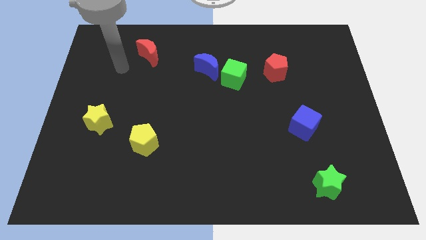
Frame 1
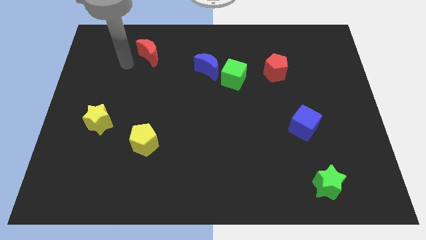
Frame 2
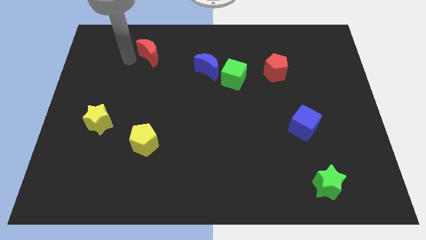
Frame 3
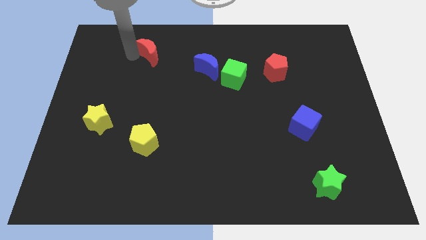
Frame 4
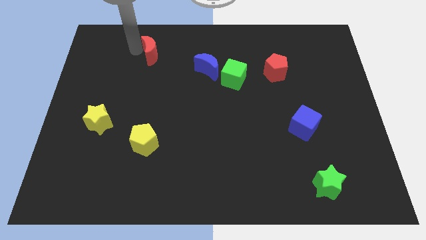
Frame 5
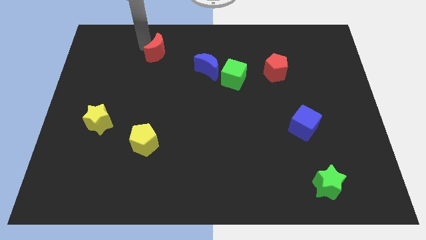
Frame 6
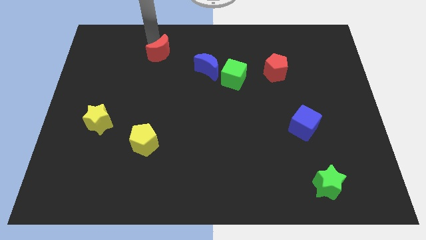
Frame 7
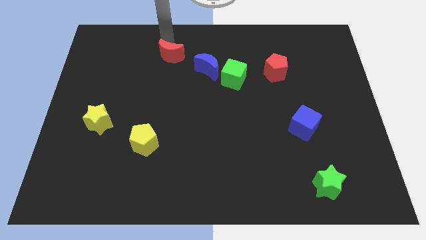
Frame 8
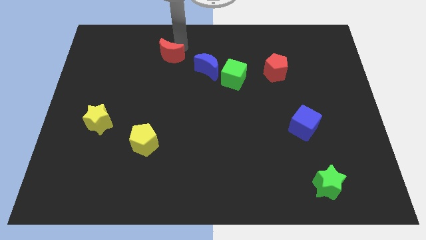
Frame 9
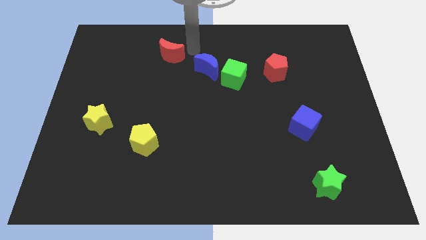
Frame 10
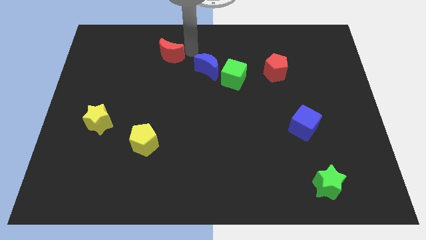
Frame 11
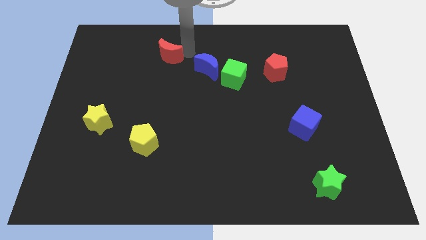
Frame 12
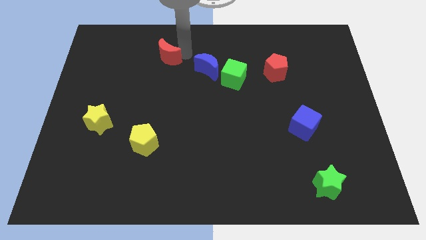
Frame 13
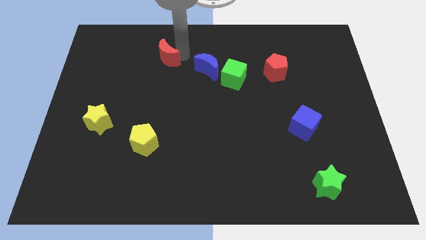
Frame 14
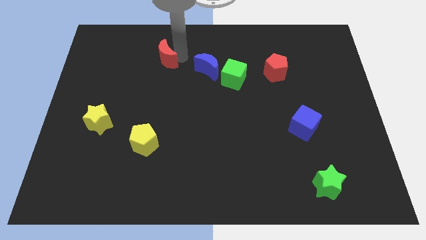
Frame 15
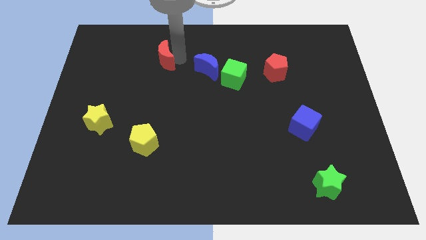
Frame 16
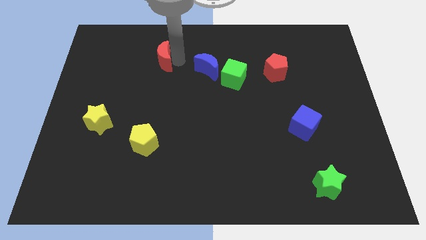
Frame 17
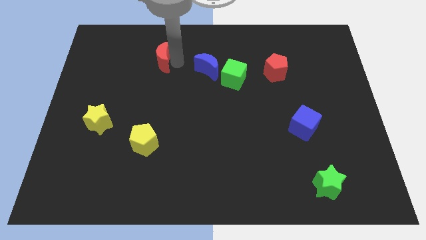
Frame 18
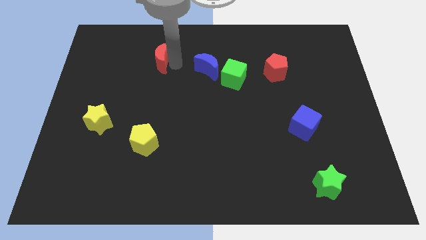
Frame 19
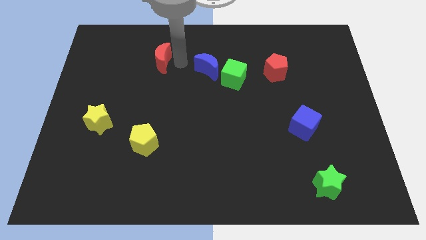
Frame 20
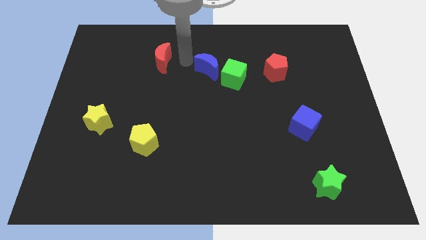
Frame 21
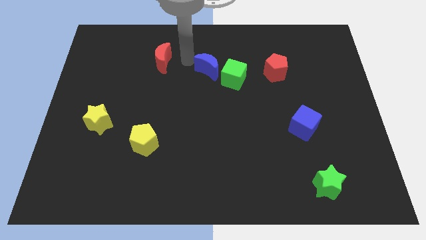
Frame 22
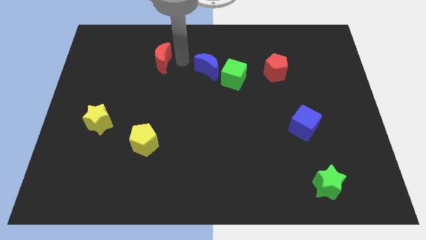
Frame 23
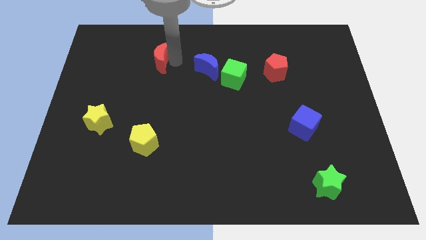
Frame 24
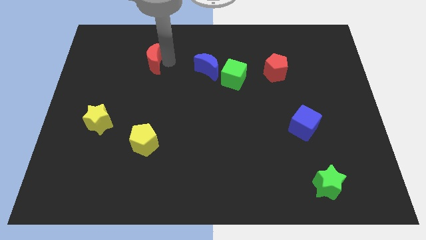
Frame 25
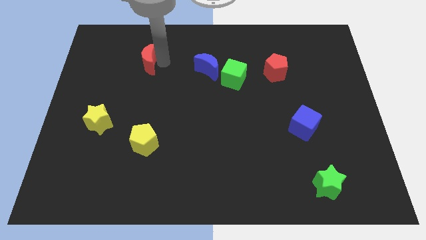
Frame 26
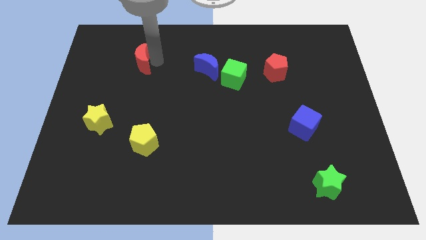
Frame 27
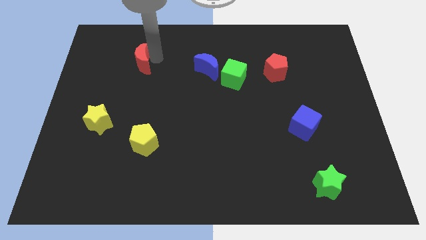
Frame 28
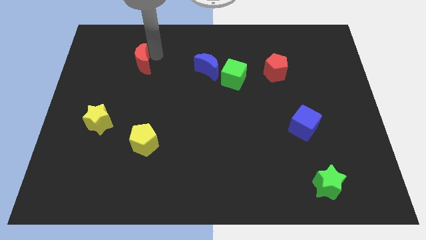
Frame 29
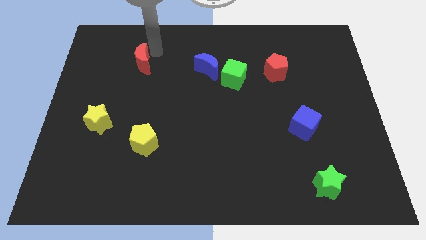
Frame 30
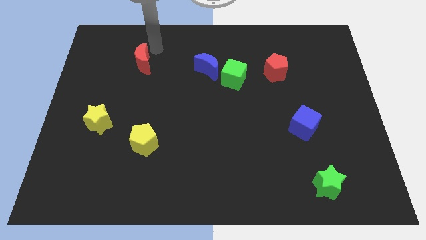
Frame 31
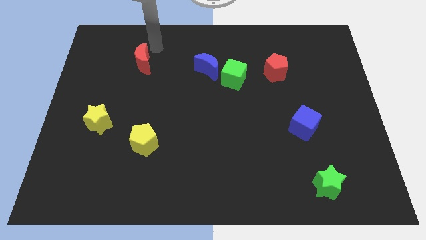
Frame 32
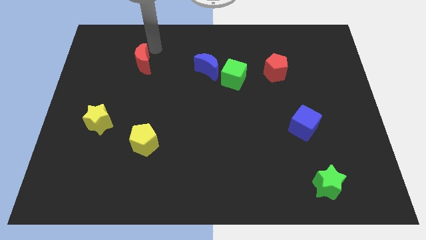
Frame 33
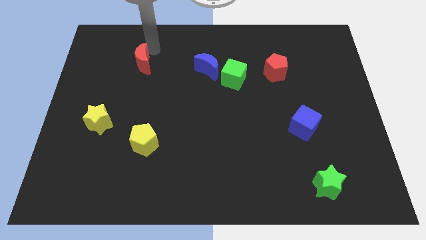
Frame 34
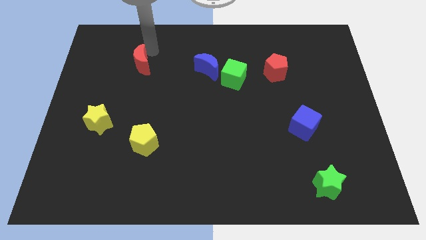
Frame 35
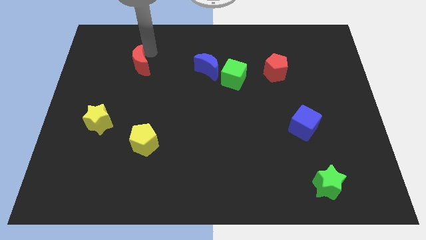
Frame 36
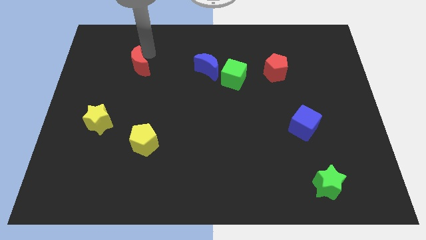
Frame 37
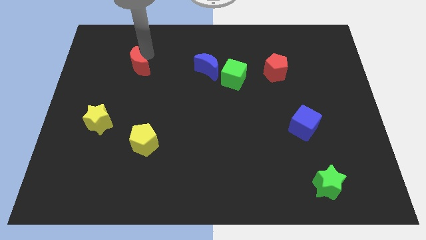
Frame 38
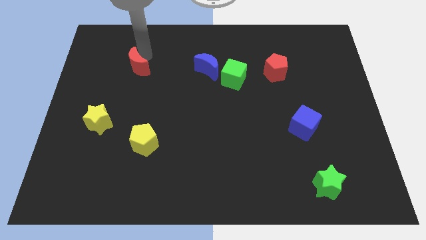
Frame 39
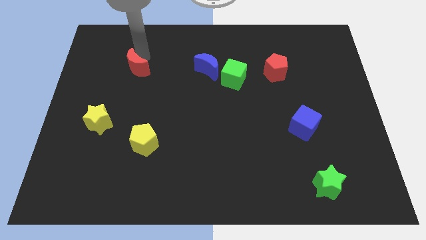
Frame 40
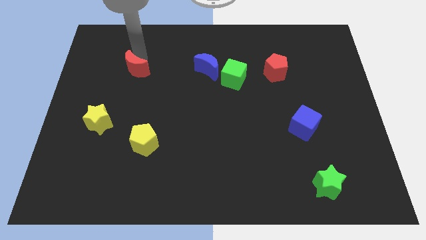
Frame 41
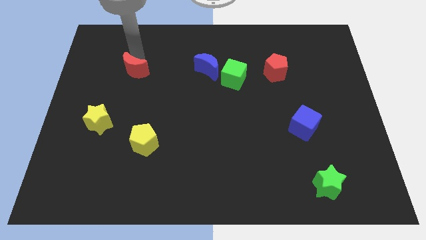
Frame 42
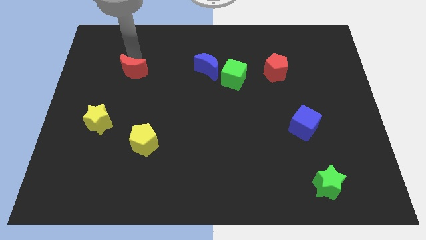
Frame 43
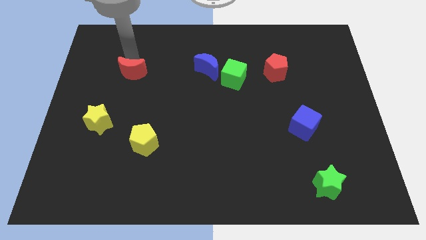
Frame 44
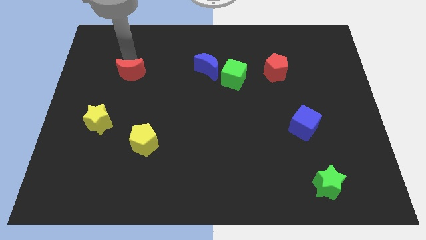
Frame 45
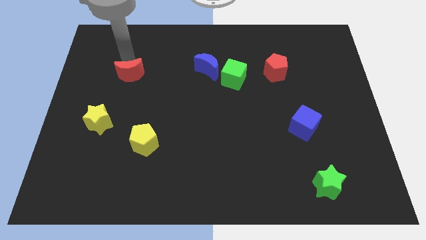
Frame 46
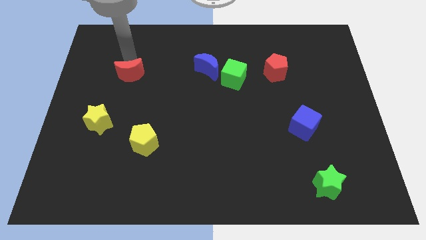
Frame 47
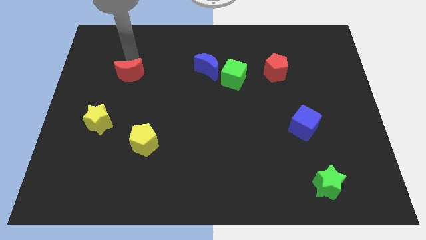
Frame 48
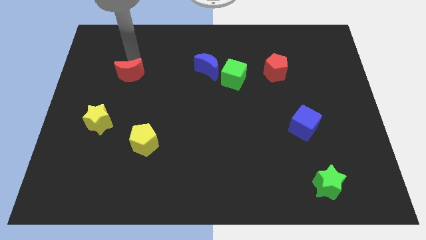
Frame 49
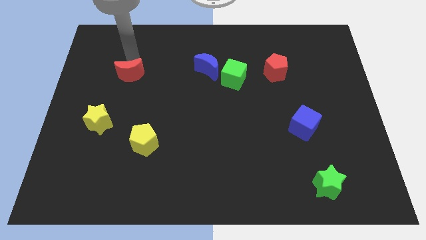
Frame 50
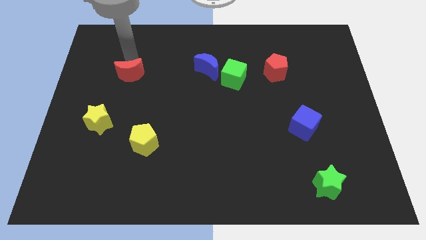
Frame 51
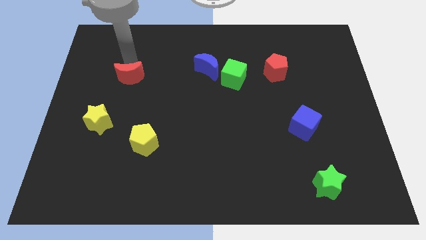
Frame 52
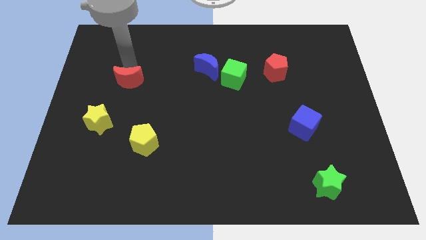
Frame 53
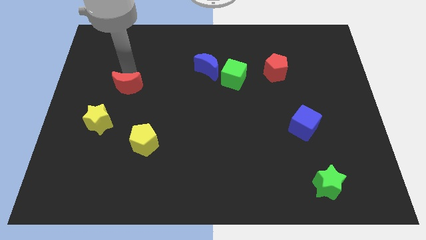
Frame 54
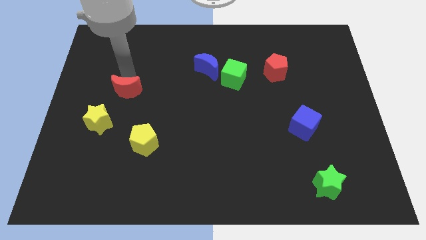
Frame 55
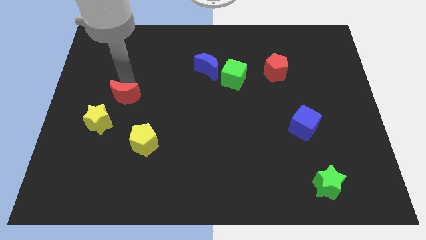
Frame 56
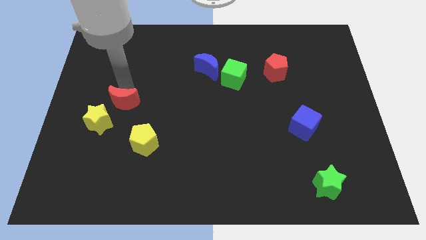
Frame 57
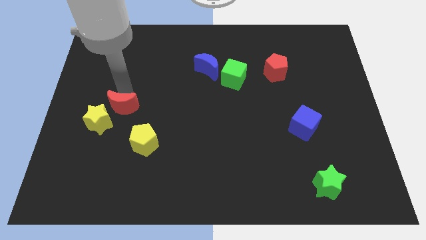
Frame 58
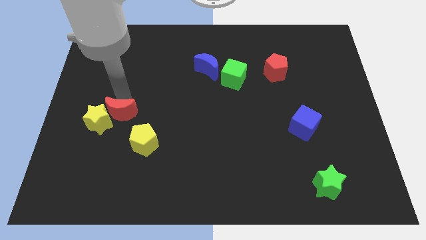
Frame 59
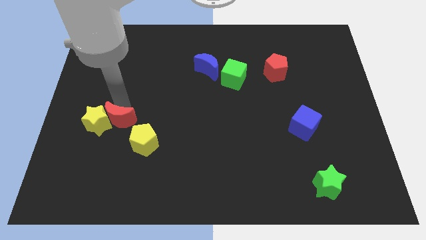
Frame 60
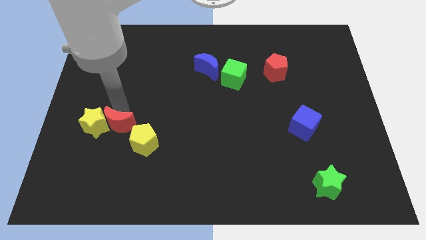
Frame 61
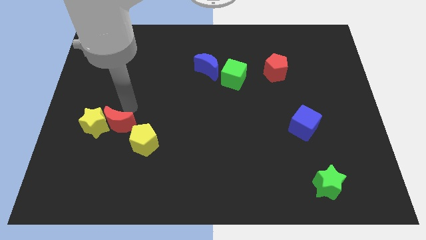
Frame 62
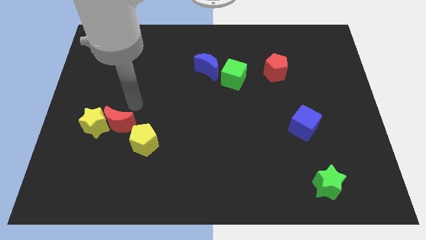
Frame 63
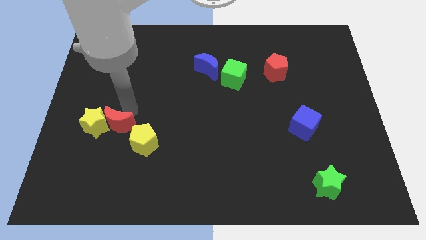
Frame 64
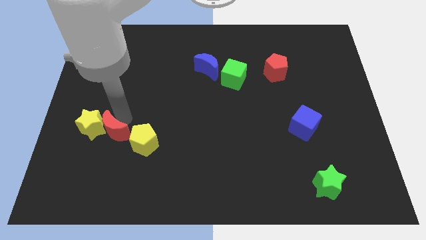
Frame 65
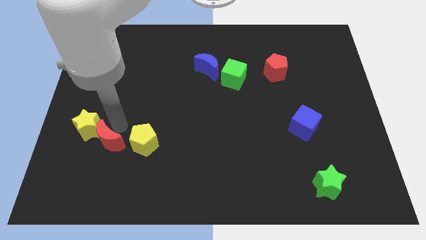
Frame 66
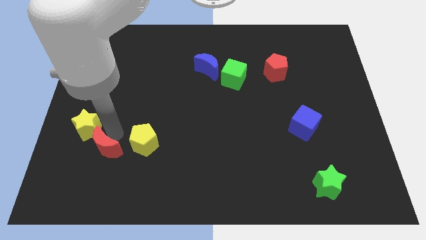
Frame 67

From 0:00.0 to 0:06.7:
push the red moon to the bottom side of the yellow star
